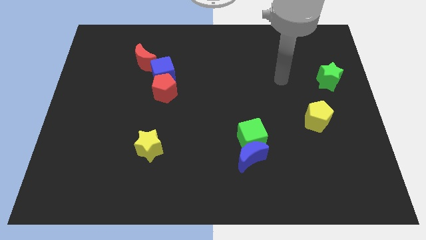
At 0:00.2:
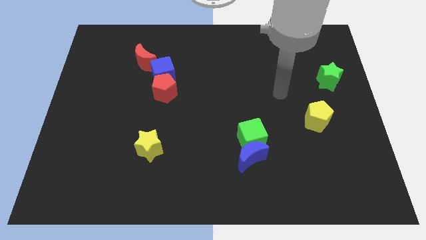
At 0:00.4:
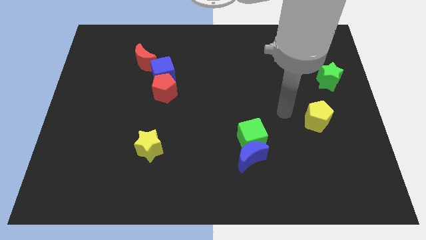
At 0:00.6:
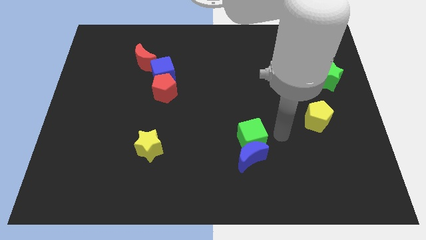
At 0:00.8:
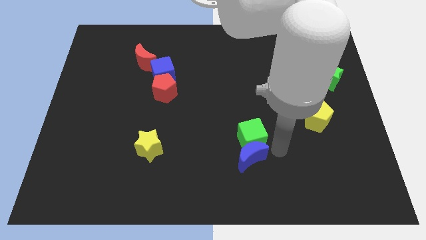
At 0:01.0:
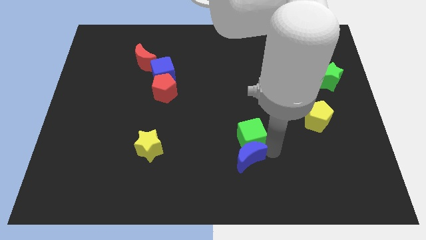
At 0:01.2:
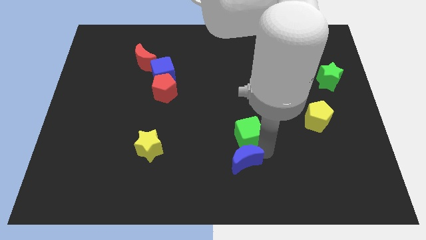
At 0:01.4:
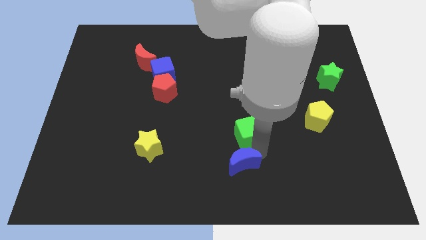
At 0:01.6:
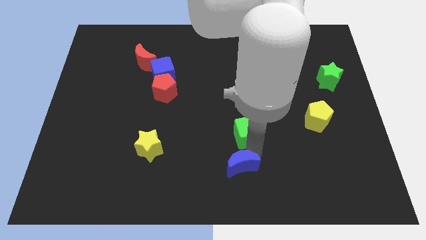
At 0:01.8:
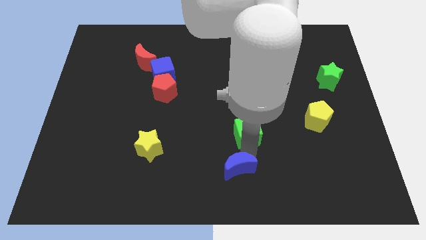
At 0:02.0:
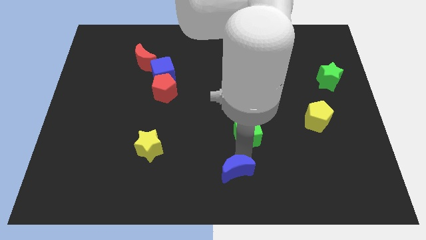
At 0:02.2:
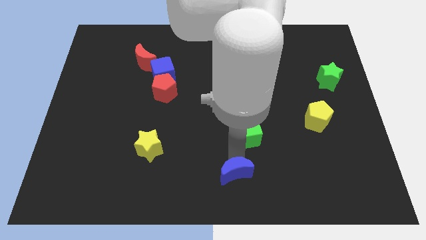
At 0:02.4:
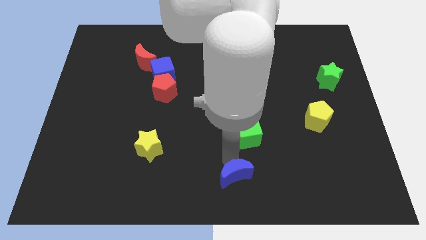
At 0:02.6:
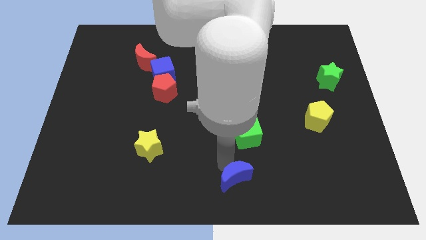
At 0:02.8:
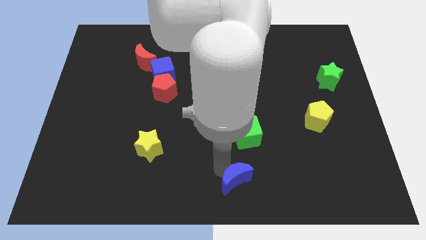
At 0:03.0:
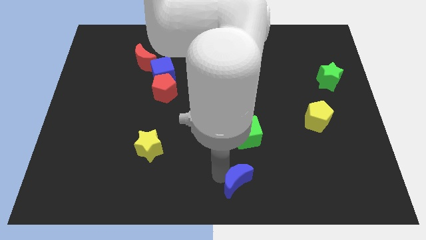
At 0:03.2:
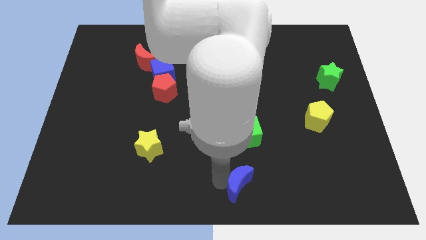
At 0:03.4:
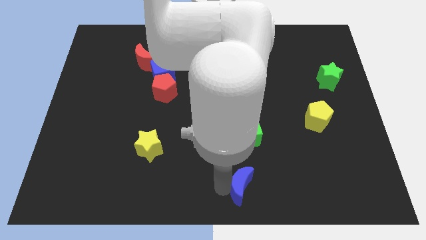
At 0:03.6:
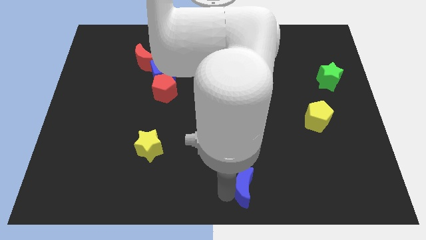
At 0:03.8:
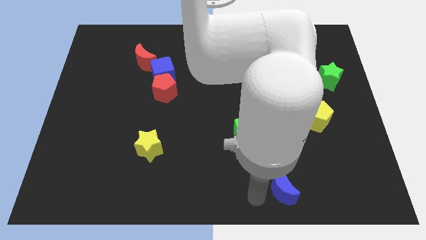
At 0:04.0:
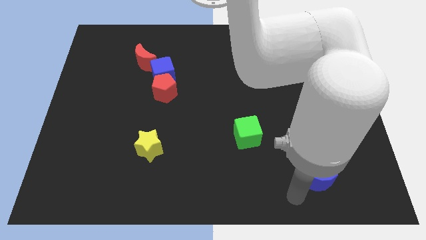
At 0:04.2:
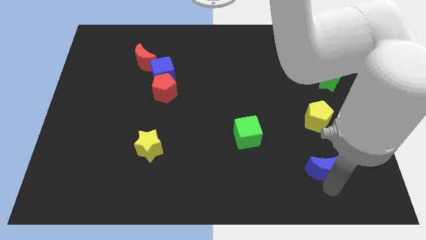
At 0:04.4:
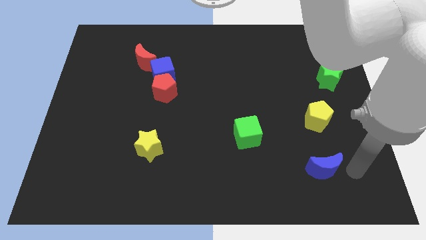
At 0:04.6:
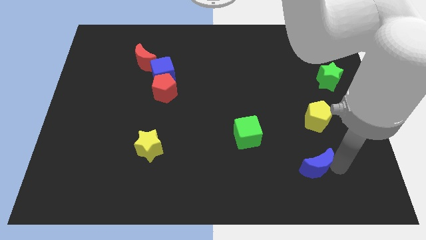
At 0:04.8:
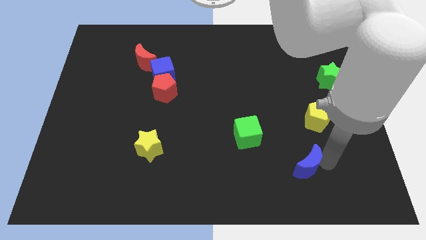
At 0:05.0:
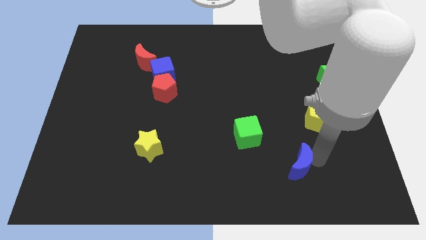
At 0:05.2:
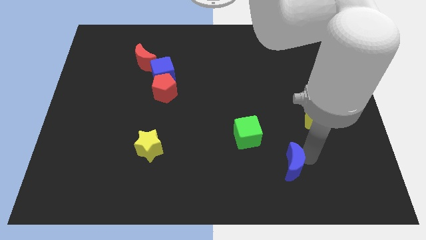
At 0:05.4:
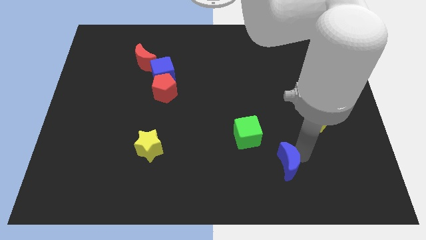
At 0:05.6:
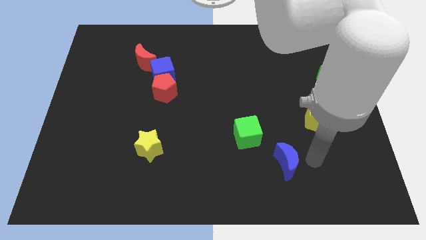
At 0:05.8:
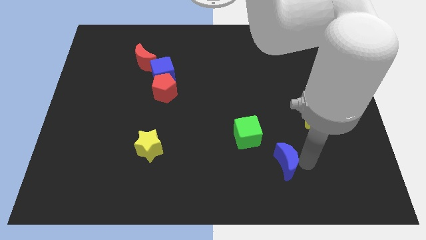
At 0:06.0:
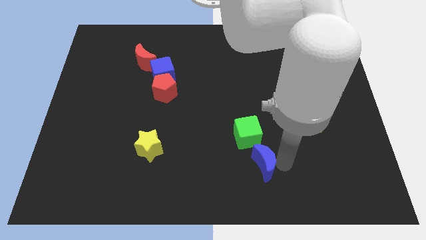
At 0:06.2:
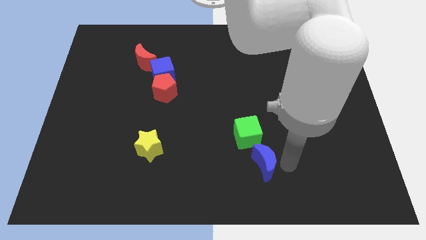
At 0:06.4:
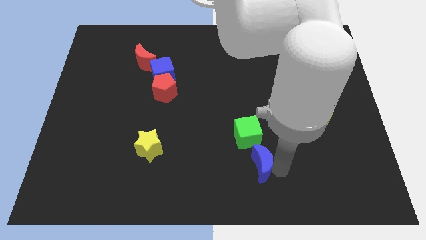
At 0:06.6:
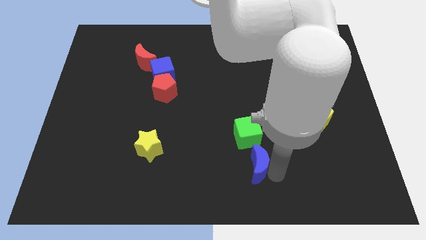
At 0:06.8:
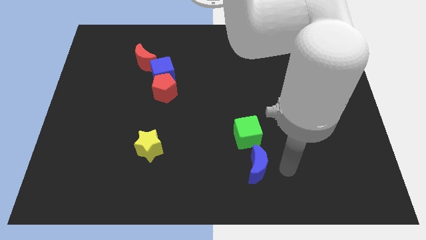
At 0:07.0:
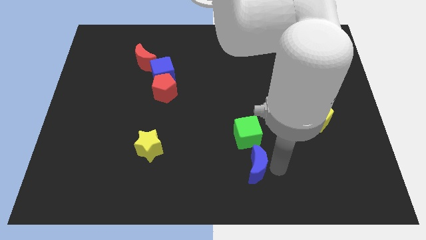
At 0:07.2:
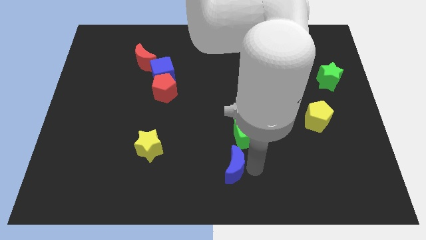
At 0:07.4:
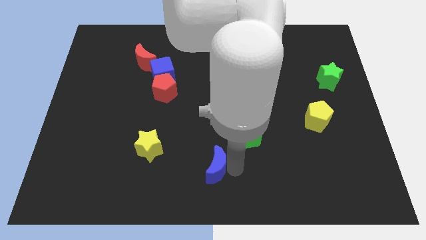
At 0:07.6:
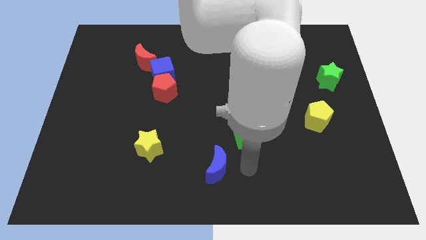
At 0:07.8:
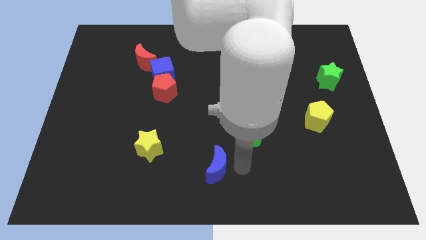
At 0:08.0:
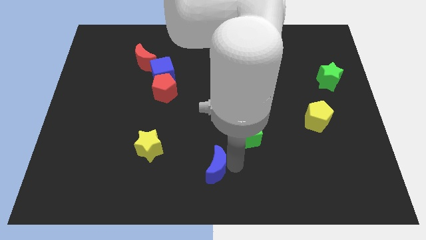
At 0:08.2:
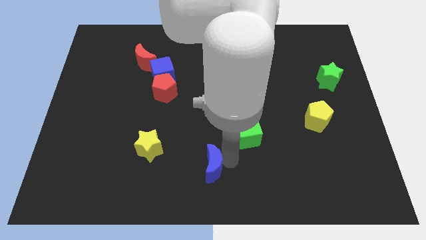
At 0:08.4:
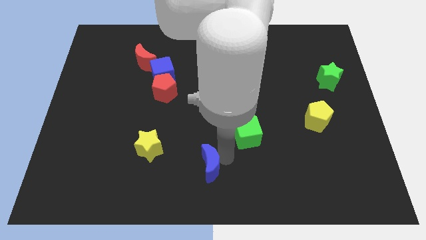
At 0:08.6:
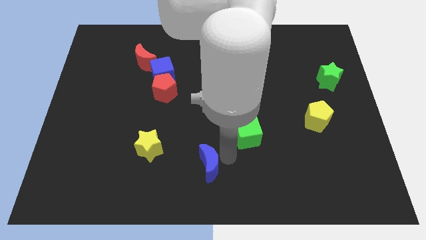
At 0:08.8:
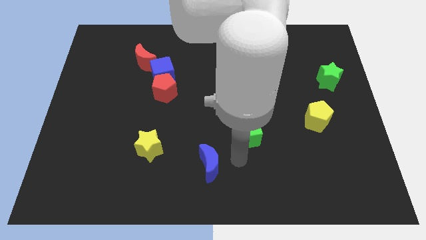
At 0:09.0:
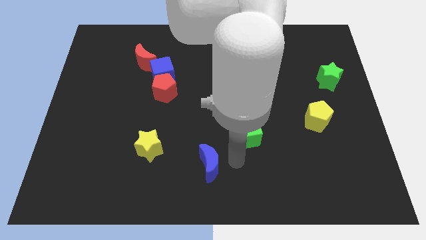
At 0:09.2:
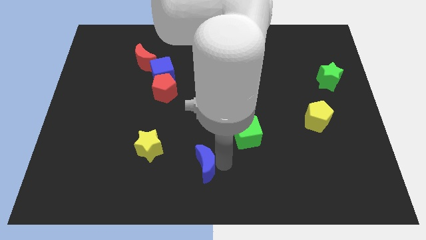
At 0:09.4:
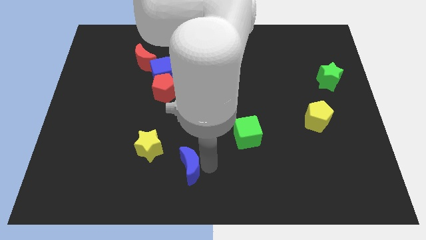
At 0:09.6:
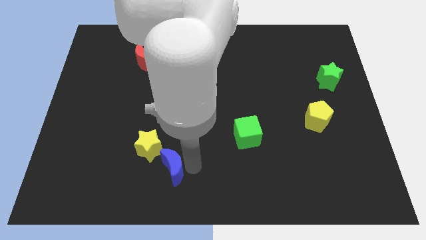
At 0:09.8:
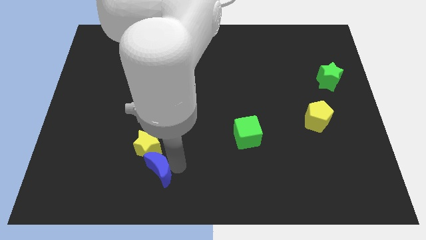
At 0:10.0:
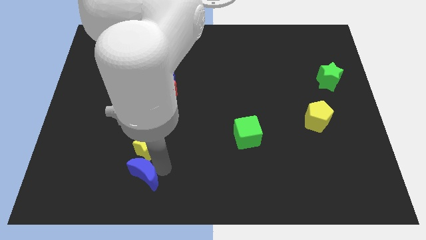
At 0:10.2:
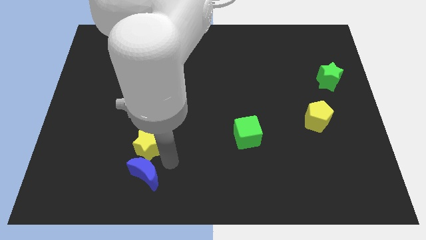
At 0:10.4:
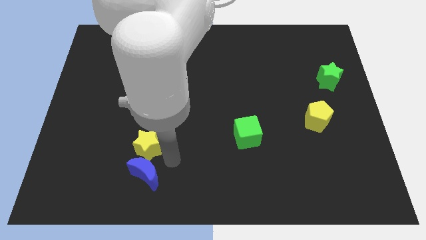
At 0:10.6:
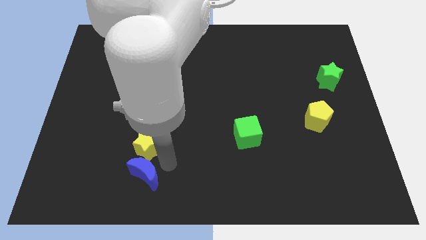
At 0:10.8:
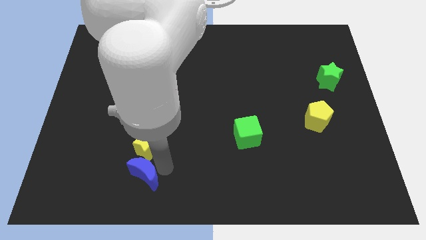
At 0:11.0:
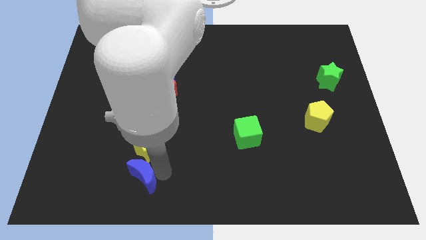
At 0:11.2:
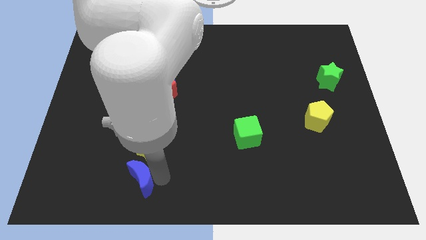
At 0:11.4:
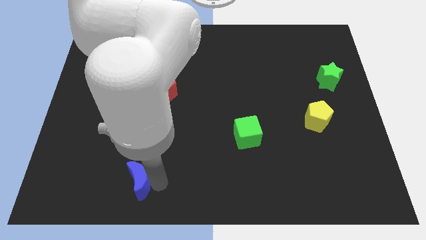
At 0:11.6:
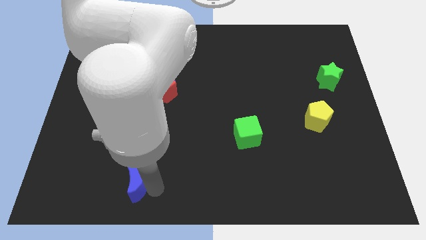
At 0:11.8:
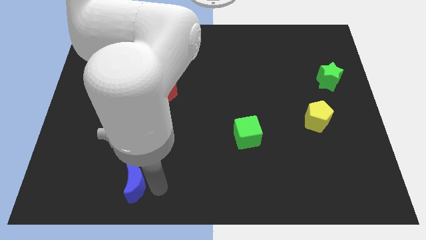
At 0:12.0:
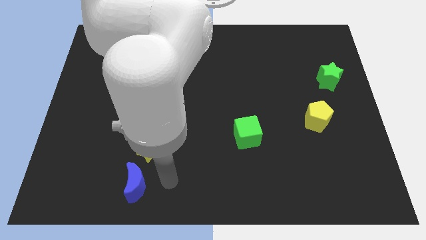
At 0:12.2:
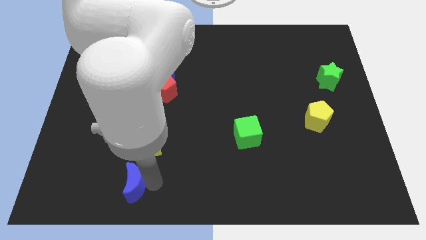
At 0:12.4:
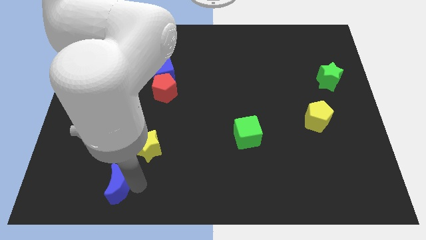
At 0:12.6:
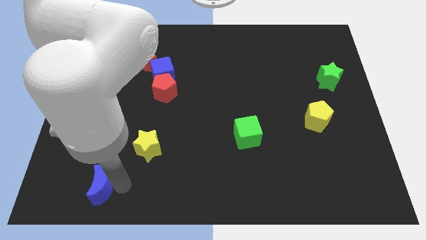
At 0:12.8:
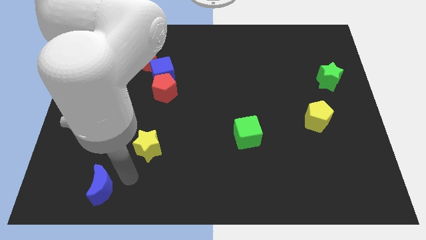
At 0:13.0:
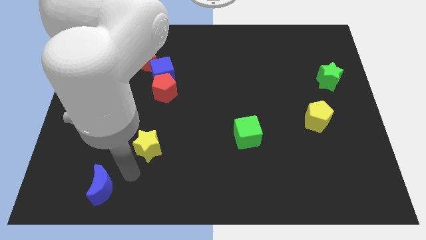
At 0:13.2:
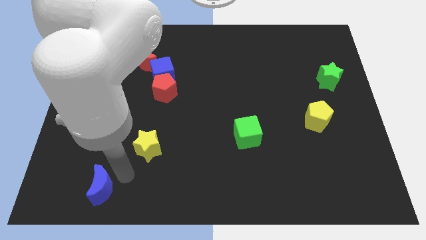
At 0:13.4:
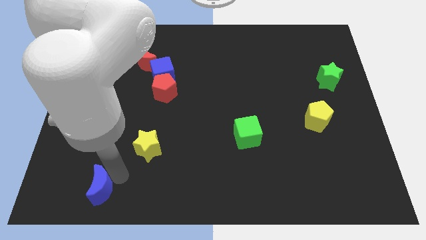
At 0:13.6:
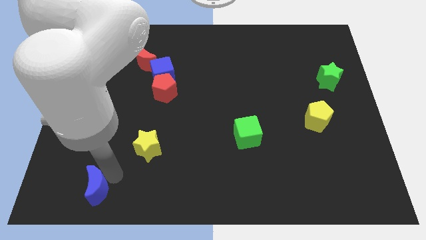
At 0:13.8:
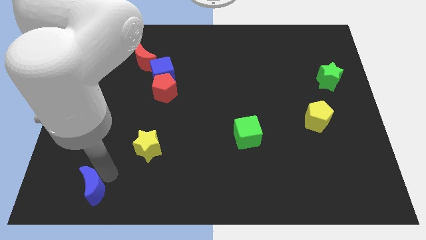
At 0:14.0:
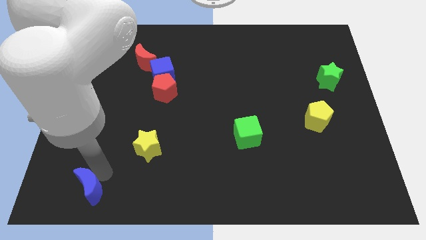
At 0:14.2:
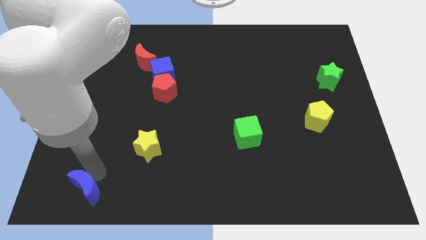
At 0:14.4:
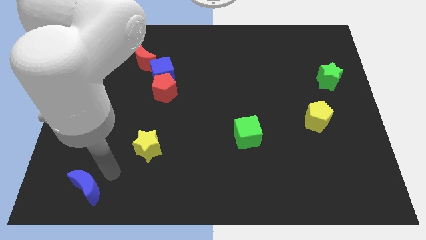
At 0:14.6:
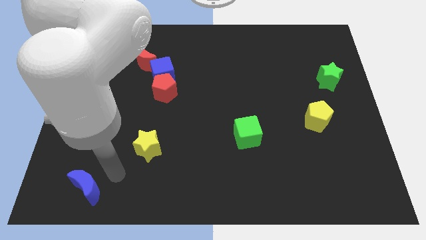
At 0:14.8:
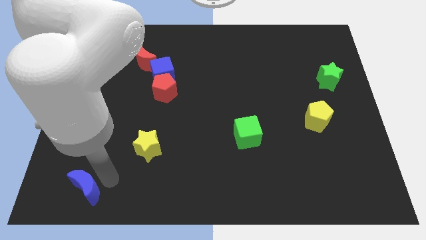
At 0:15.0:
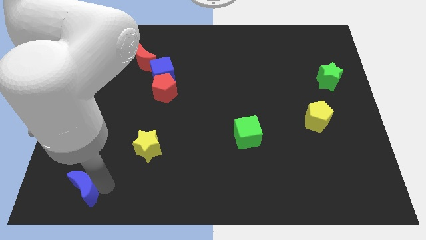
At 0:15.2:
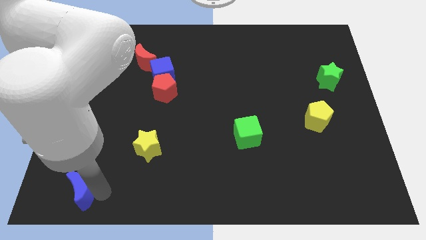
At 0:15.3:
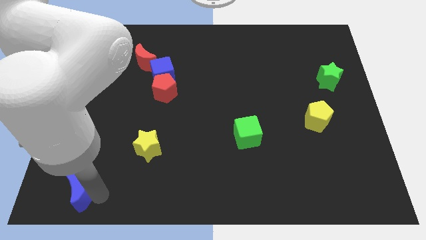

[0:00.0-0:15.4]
slide the blue moon to the lower left corner
